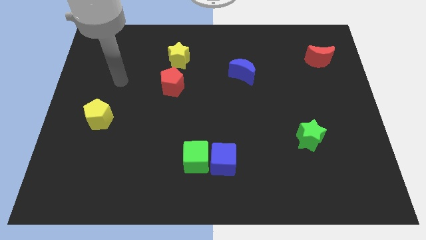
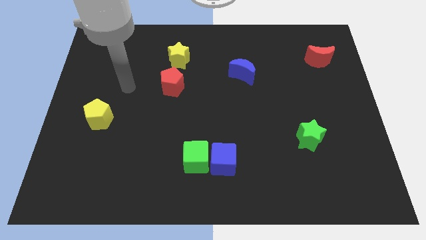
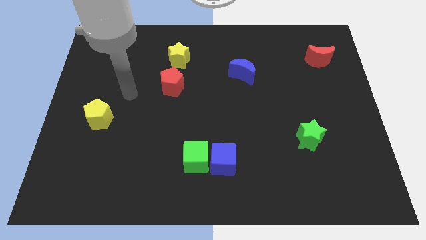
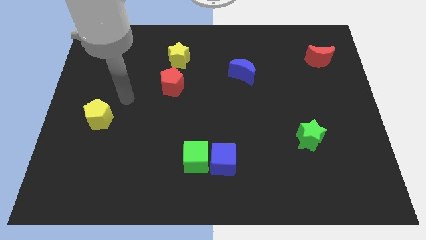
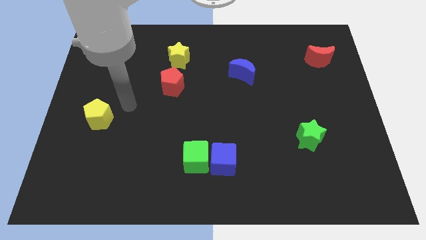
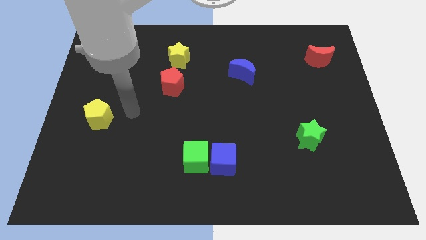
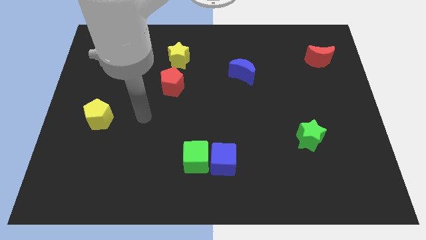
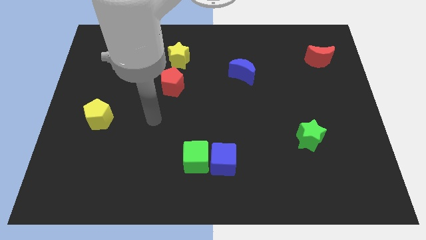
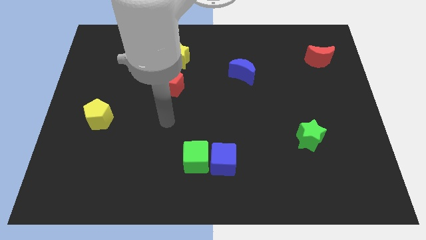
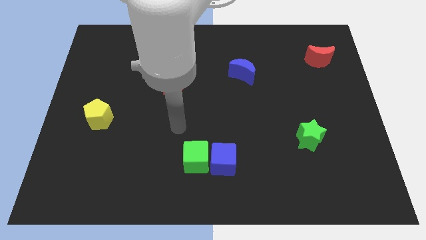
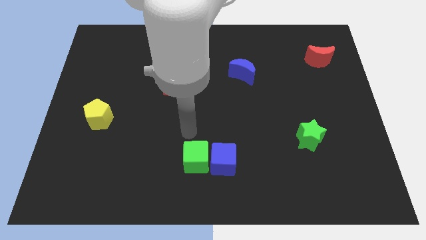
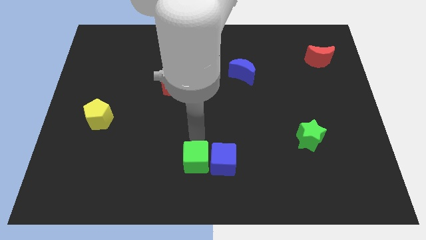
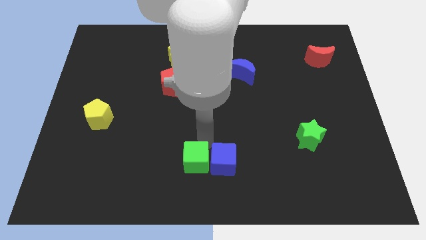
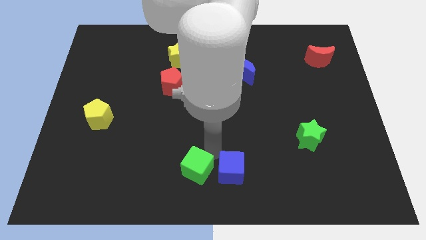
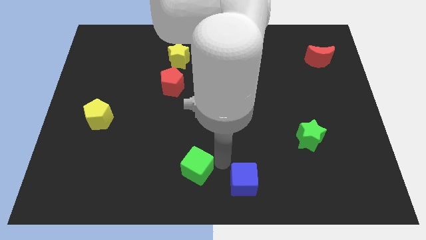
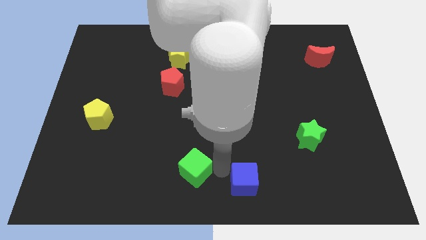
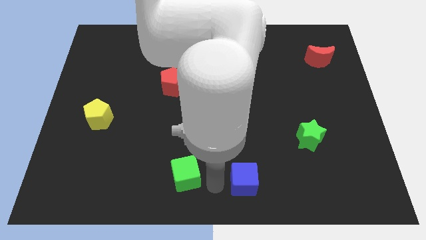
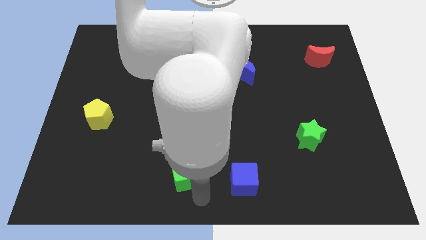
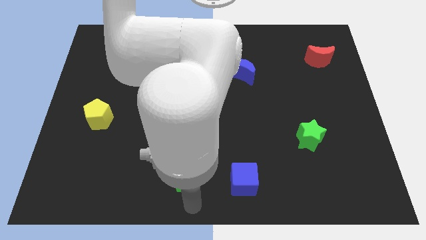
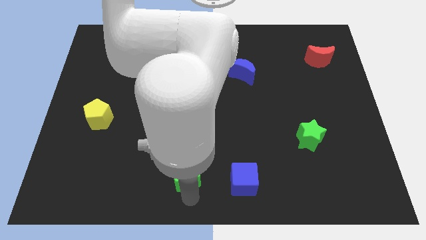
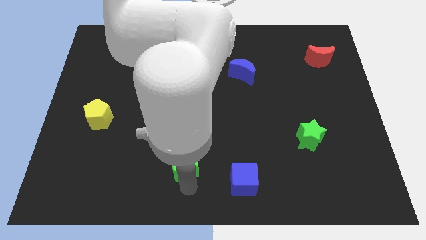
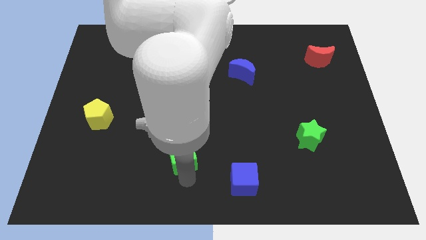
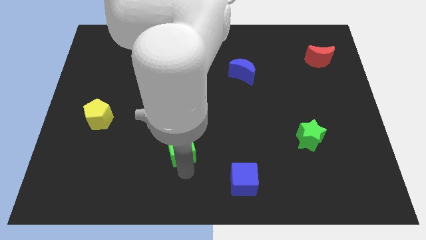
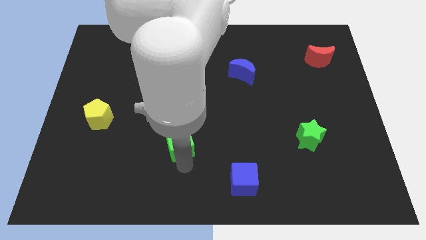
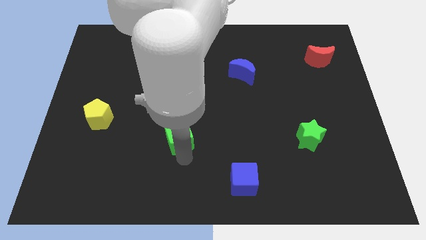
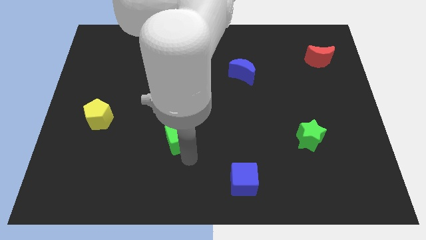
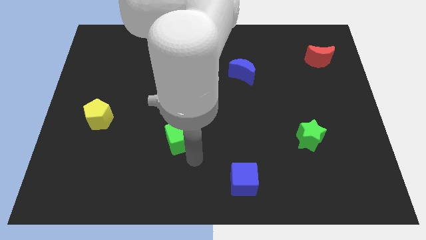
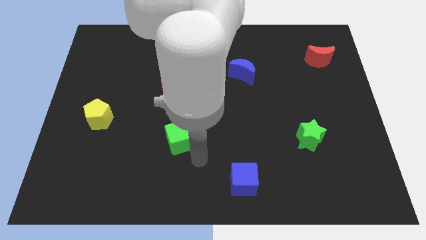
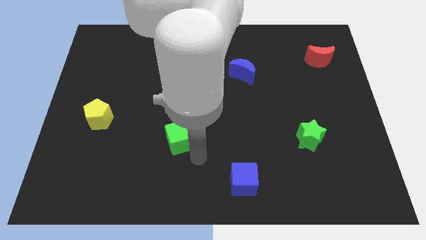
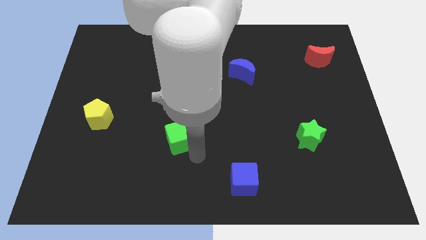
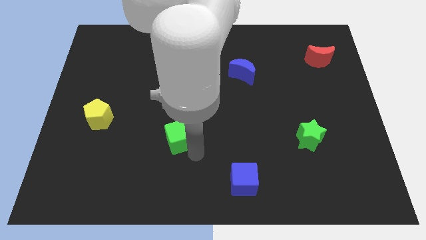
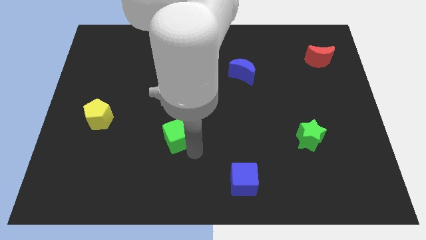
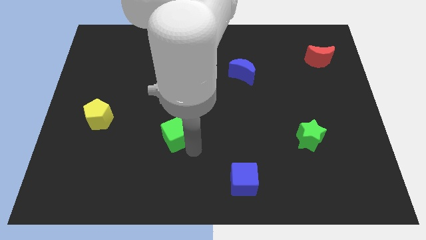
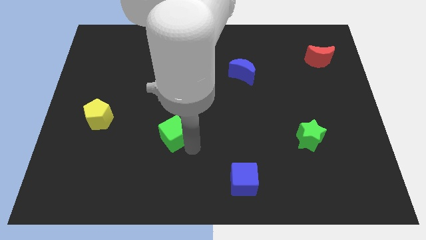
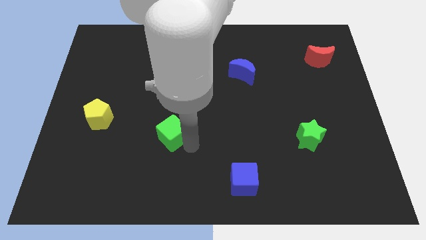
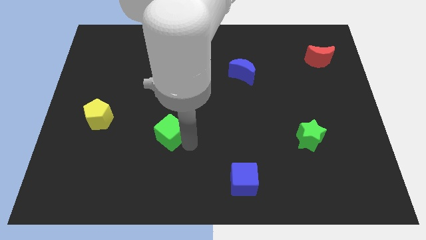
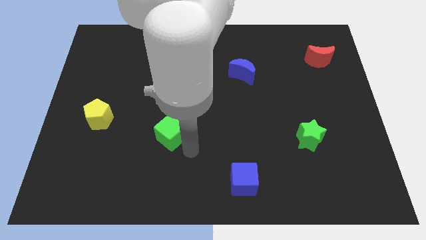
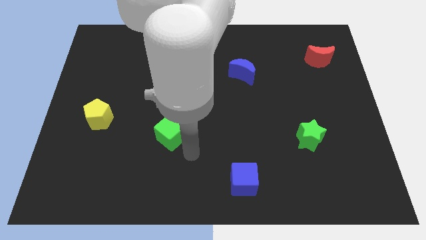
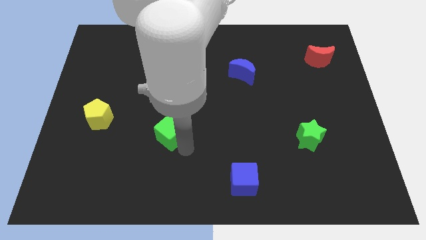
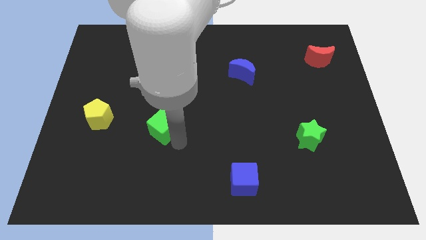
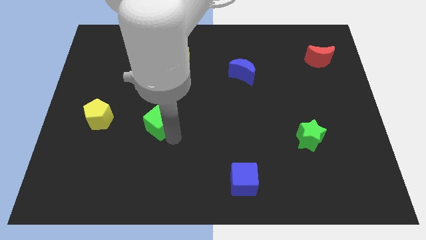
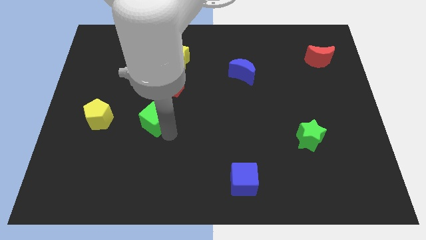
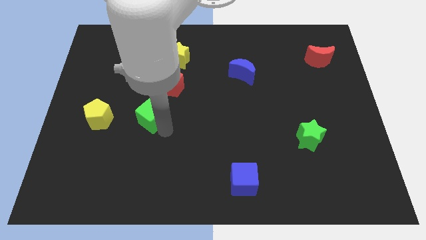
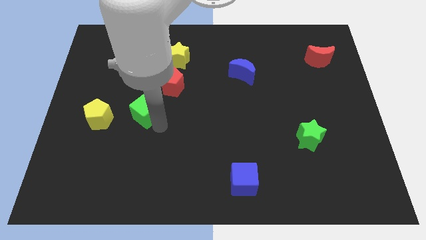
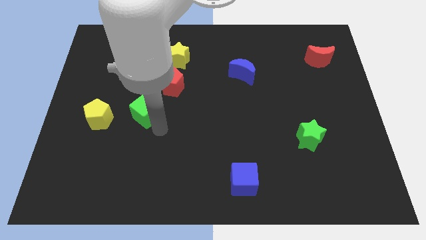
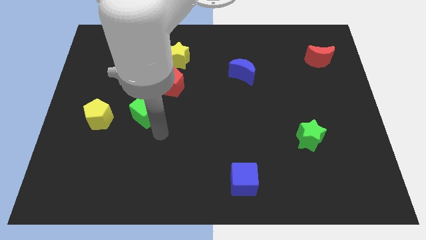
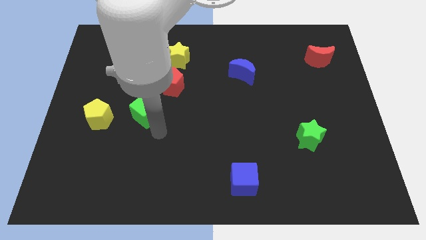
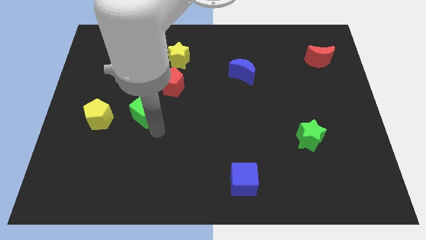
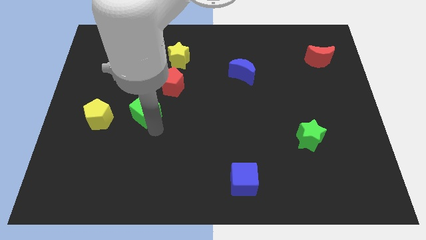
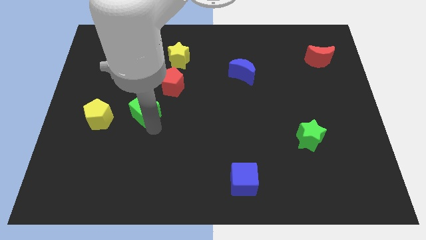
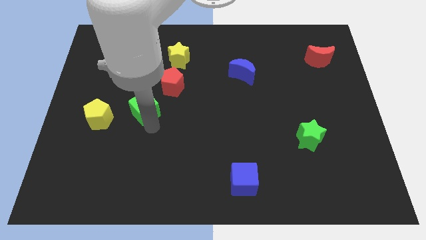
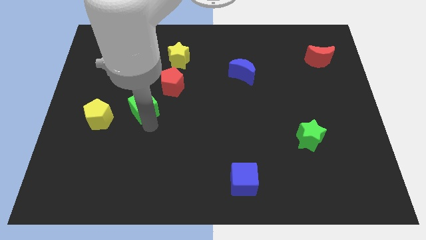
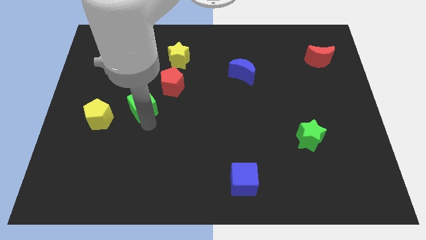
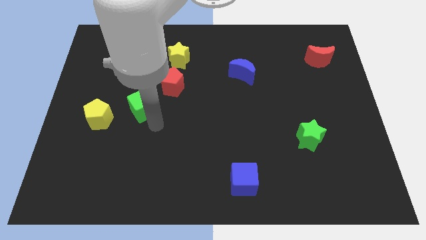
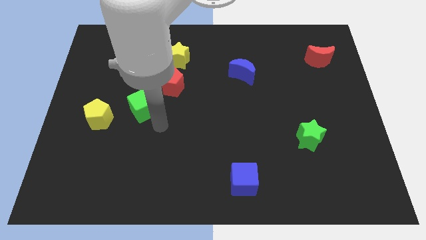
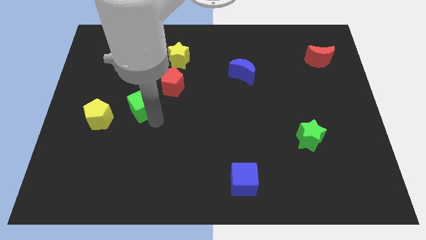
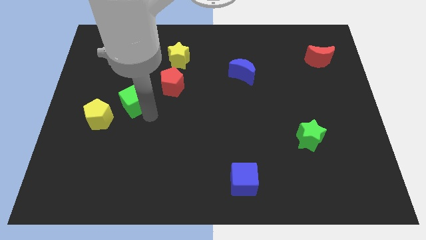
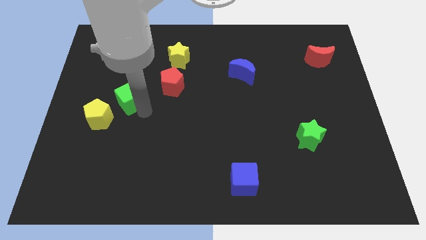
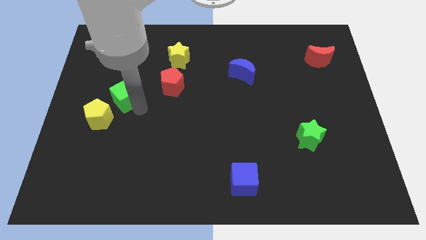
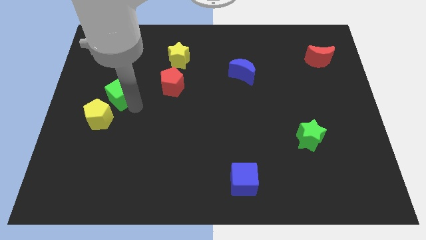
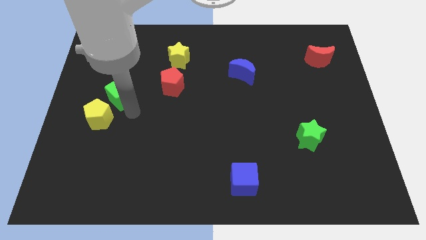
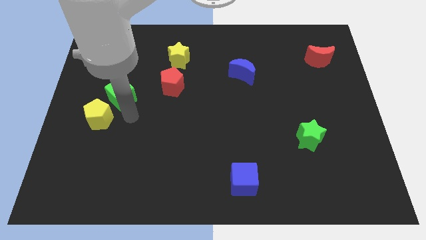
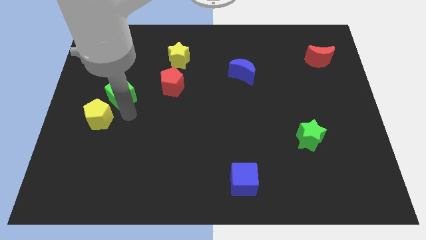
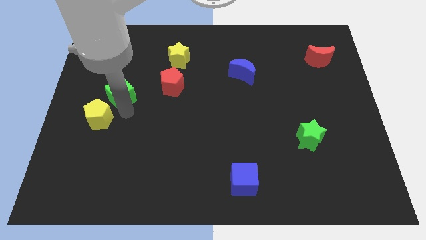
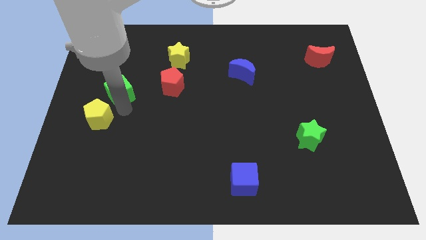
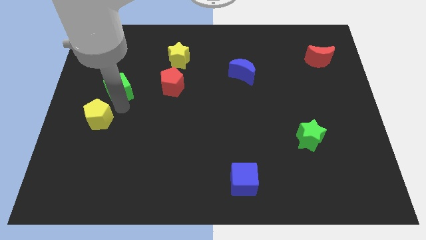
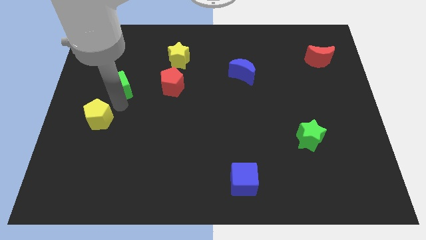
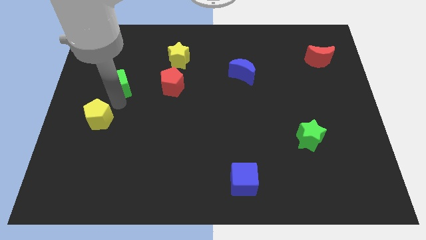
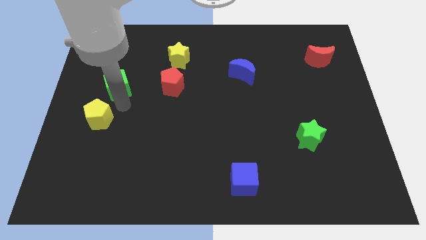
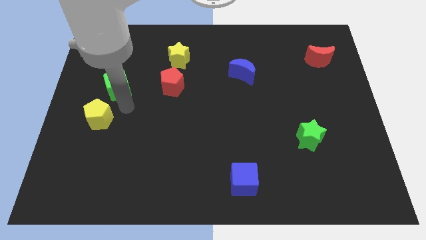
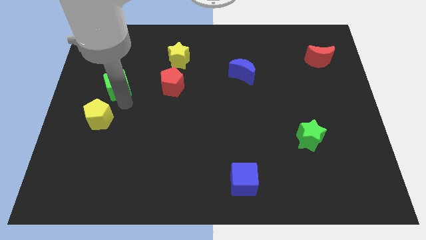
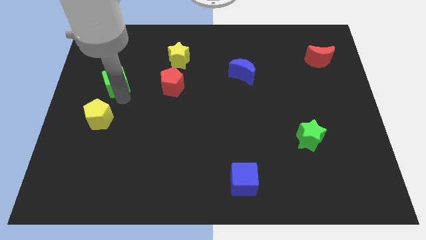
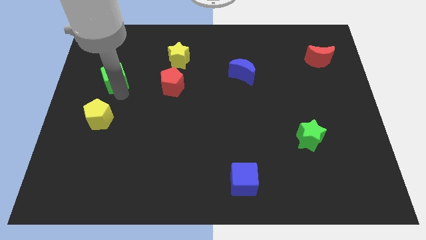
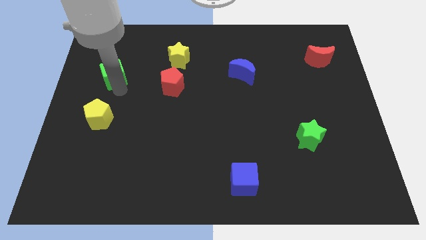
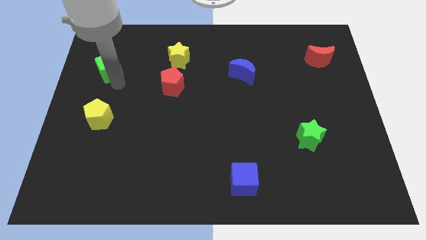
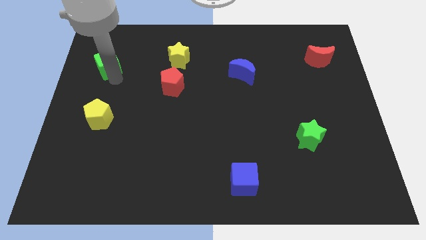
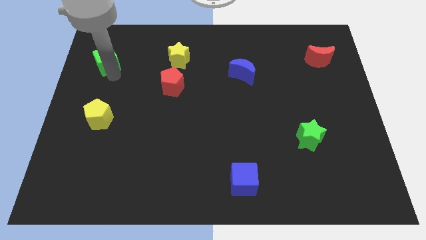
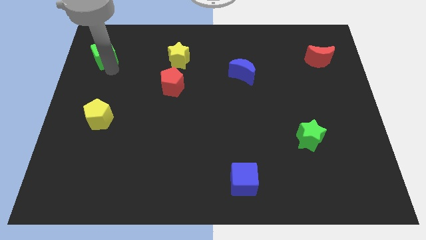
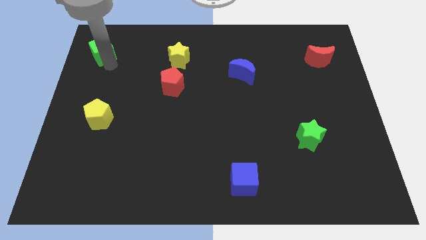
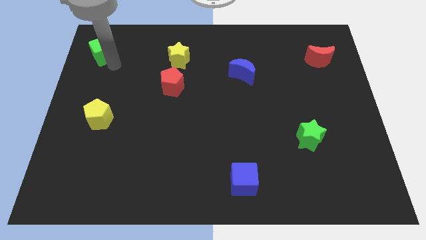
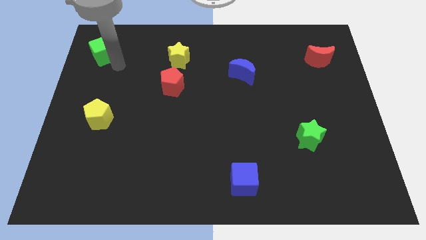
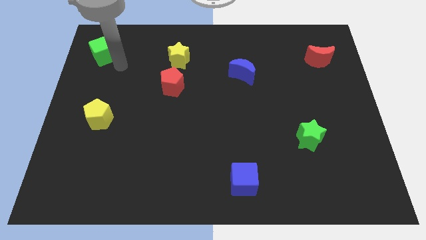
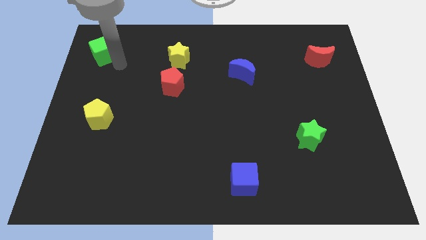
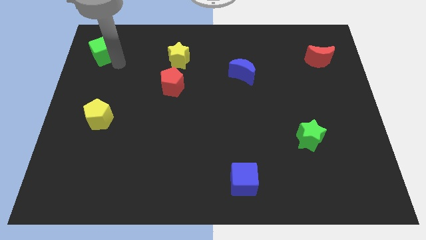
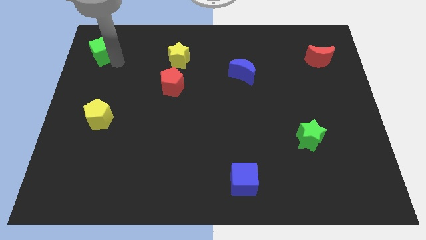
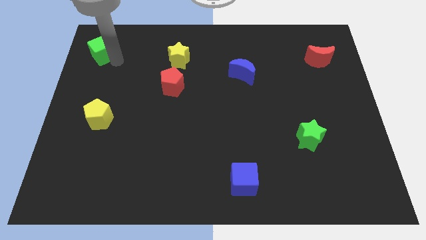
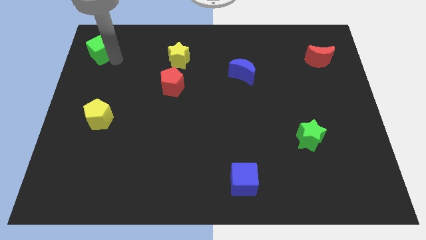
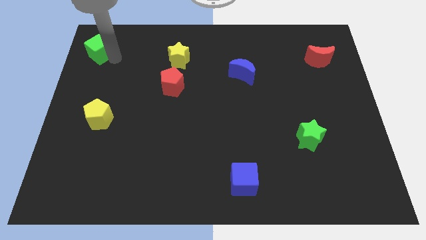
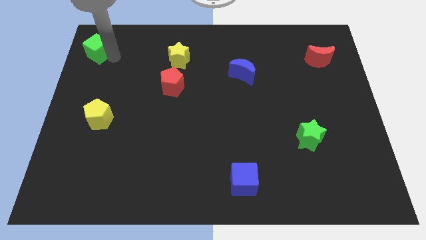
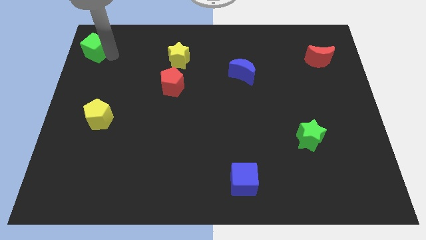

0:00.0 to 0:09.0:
push the green cube to the top left
